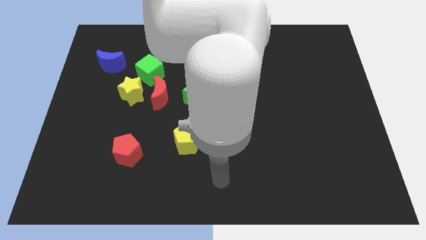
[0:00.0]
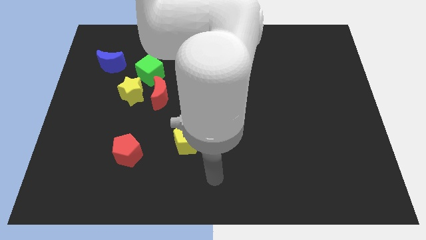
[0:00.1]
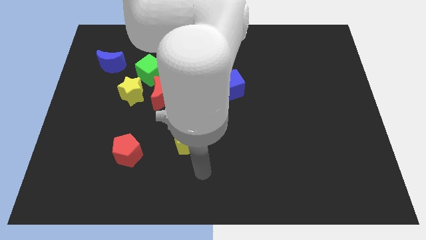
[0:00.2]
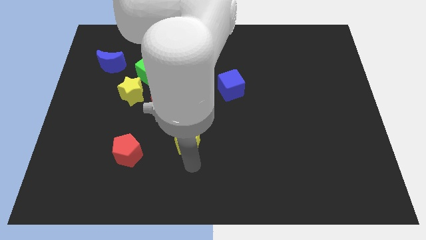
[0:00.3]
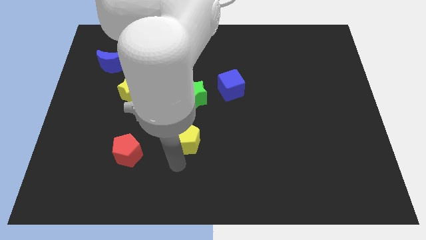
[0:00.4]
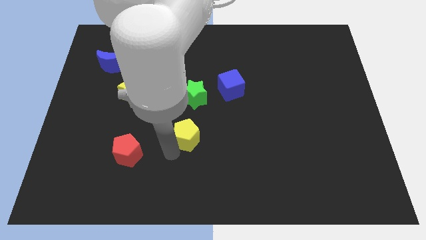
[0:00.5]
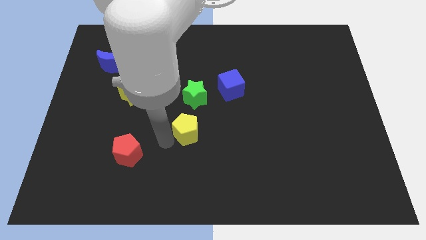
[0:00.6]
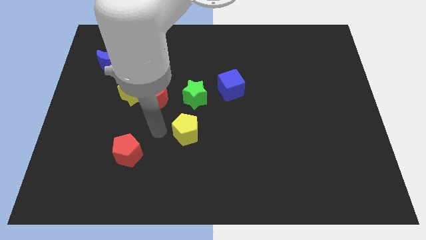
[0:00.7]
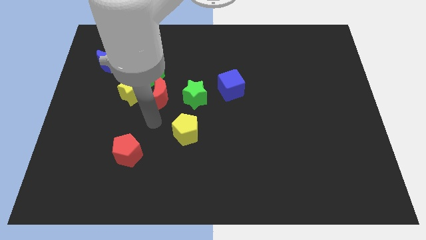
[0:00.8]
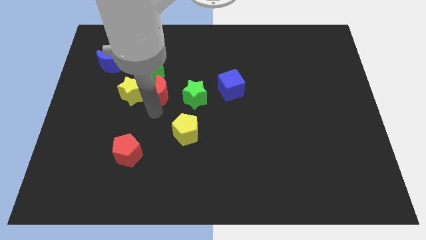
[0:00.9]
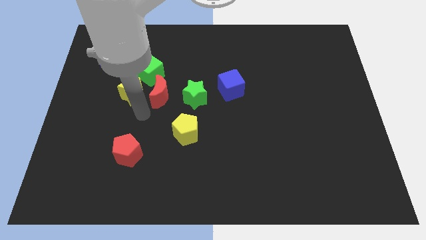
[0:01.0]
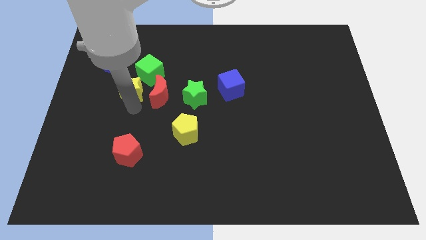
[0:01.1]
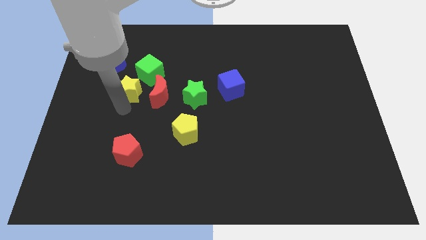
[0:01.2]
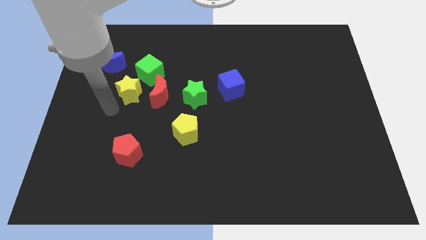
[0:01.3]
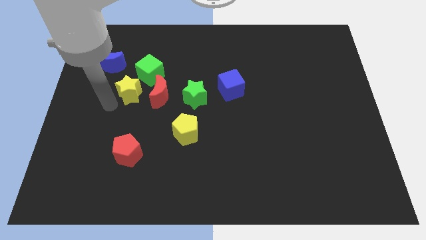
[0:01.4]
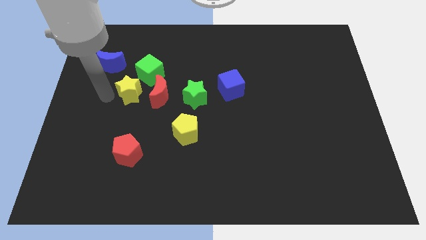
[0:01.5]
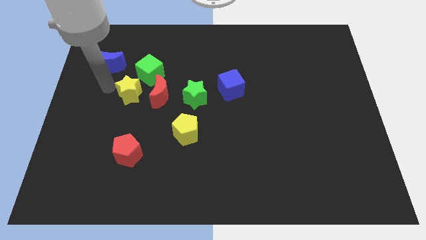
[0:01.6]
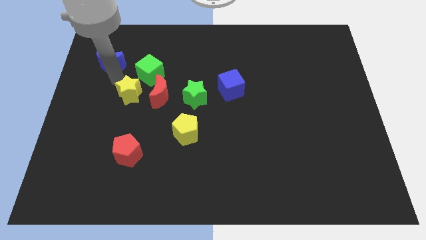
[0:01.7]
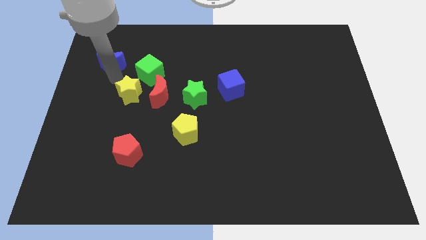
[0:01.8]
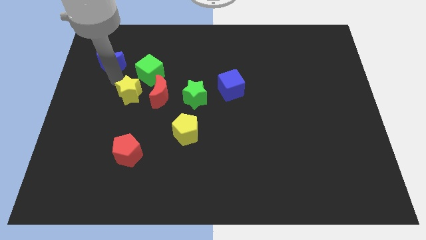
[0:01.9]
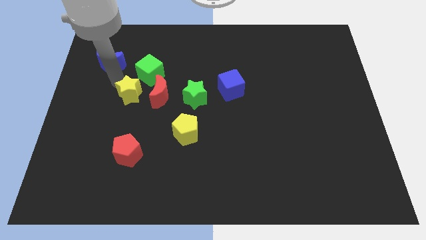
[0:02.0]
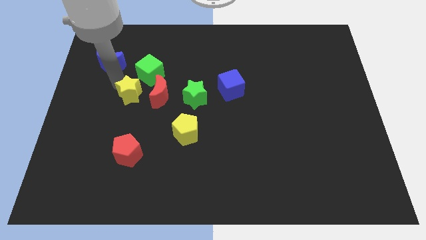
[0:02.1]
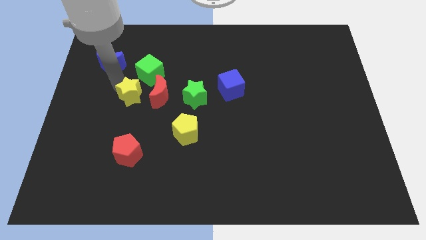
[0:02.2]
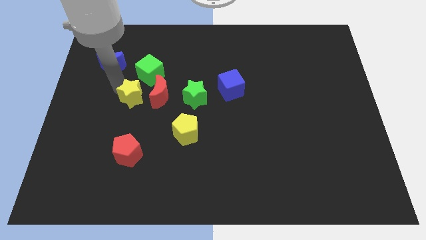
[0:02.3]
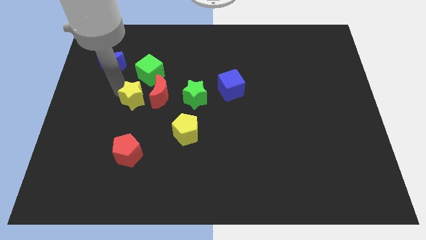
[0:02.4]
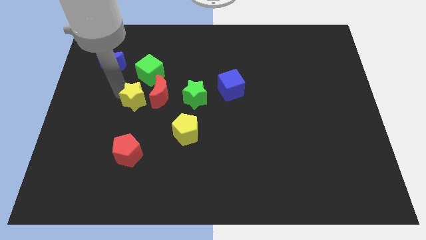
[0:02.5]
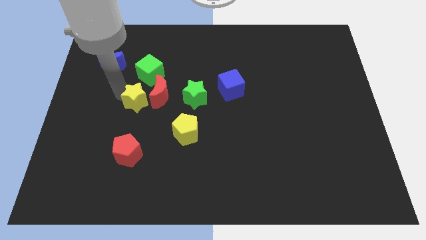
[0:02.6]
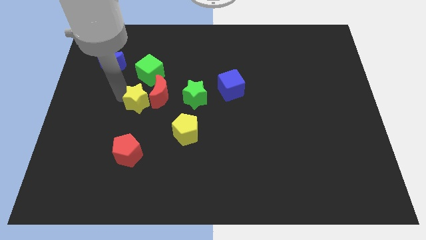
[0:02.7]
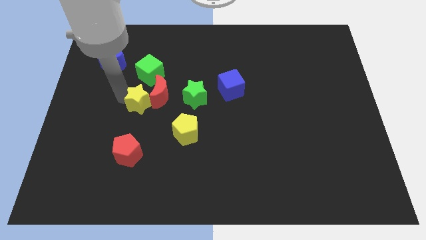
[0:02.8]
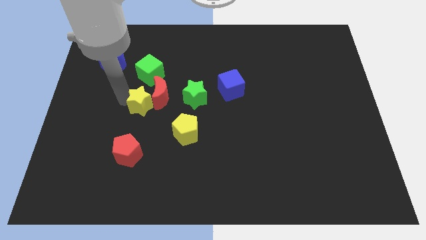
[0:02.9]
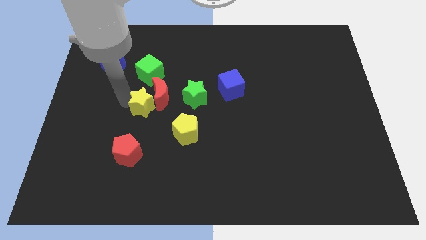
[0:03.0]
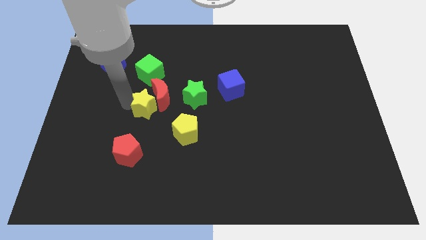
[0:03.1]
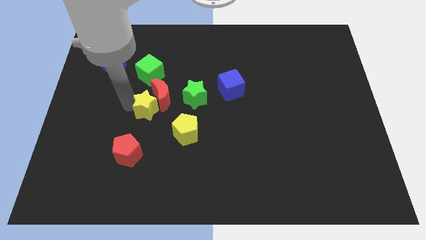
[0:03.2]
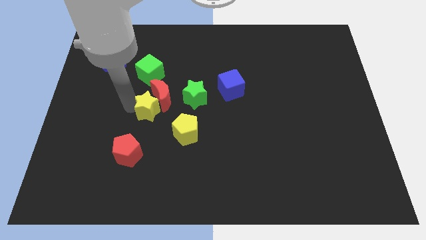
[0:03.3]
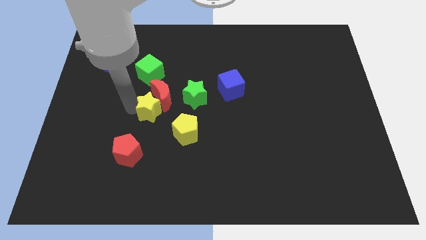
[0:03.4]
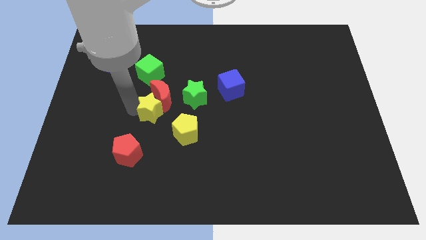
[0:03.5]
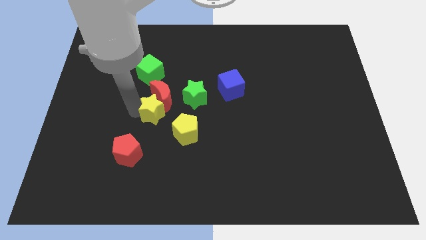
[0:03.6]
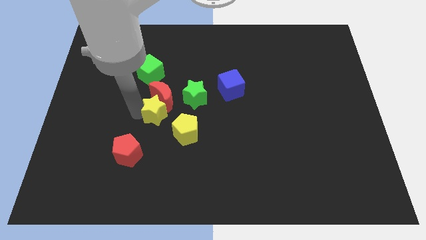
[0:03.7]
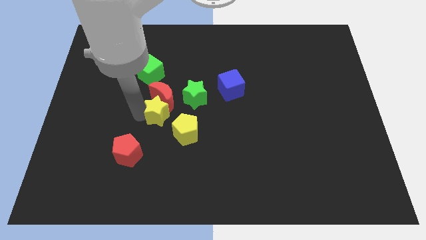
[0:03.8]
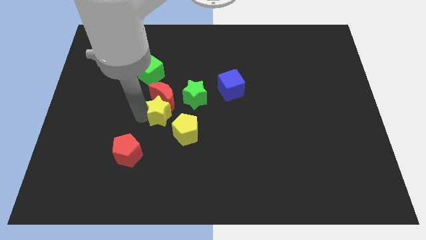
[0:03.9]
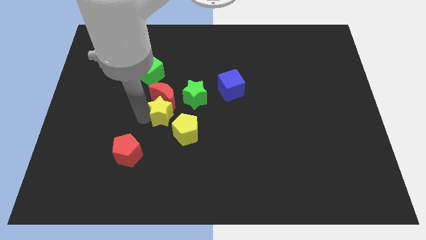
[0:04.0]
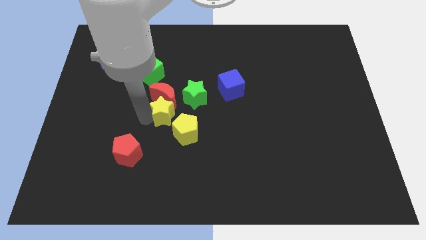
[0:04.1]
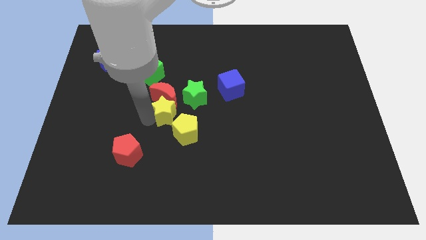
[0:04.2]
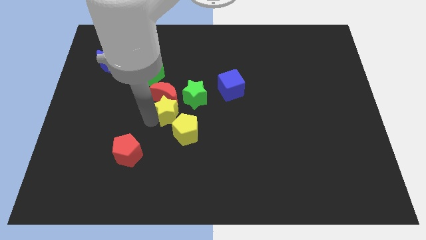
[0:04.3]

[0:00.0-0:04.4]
move the yellow star a little bit right

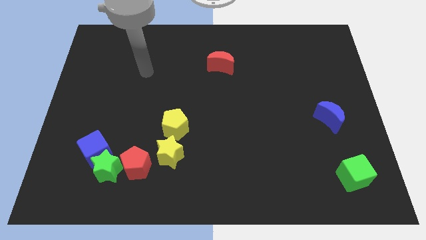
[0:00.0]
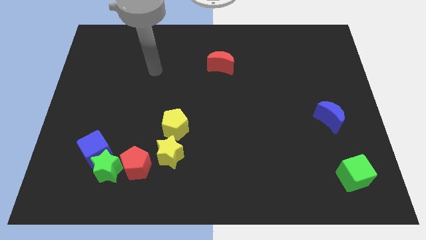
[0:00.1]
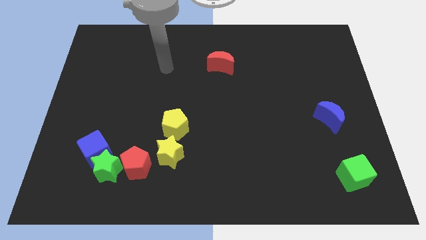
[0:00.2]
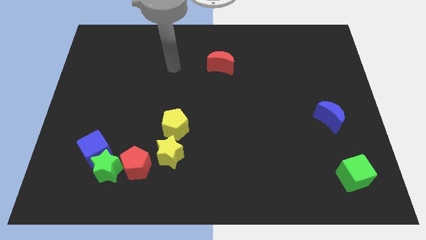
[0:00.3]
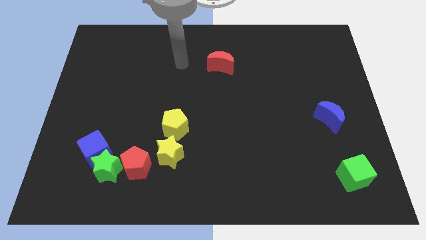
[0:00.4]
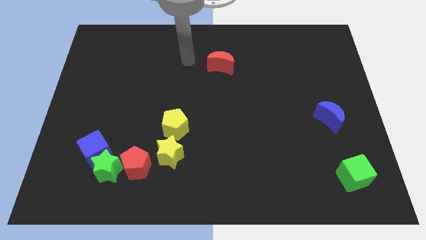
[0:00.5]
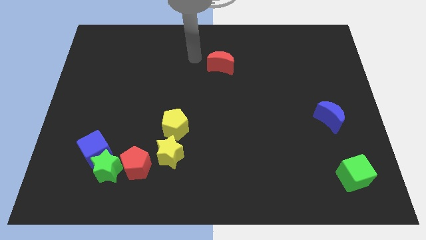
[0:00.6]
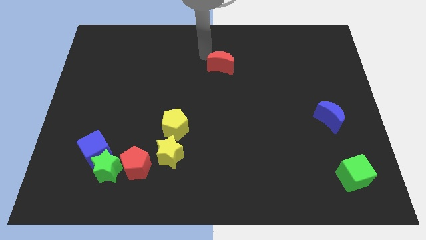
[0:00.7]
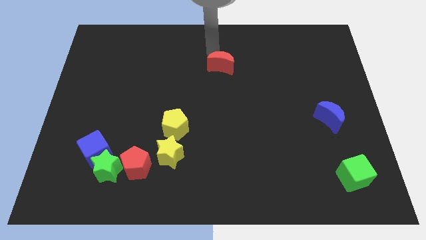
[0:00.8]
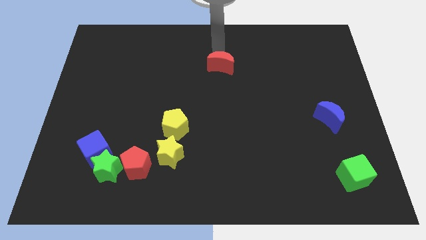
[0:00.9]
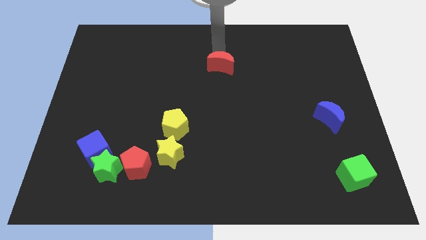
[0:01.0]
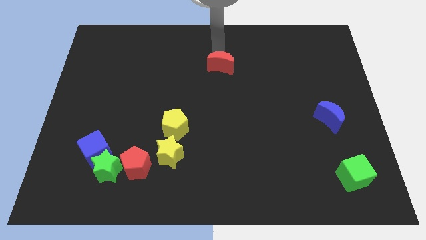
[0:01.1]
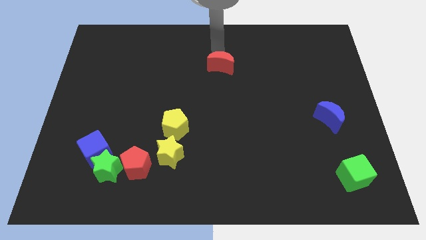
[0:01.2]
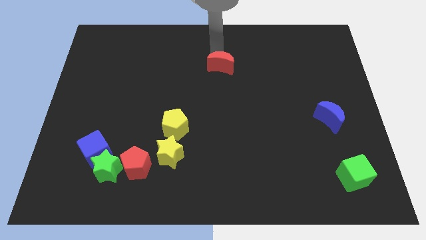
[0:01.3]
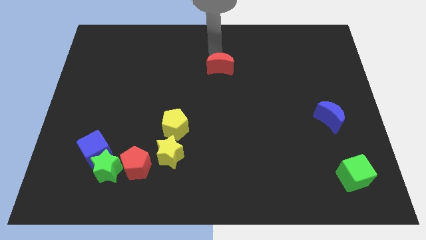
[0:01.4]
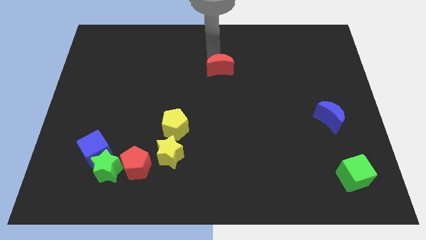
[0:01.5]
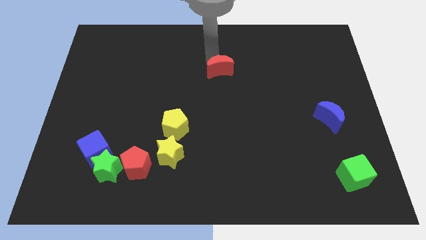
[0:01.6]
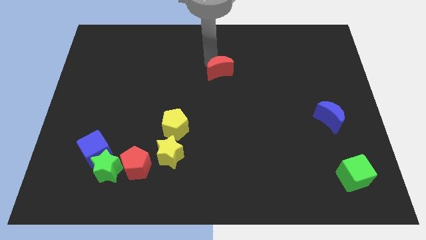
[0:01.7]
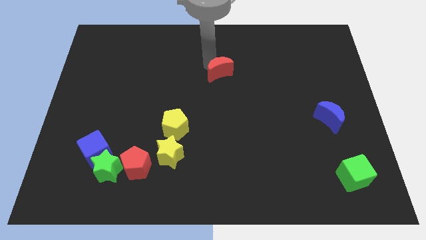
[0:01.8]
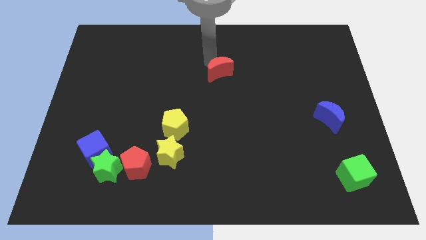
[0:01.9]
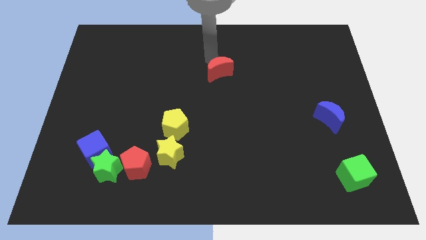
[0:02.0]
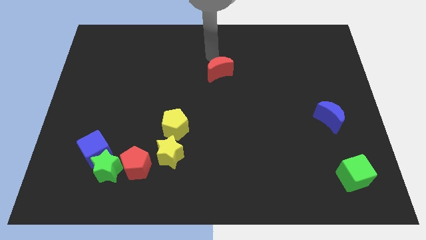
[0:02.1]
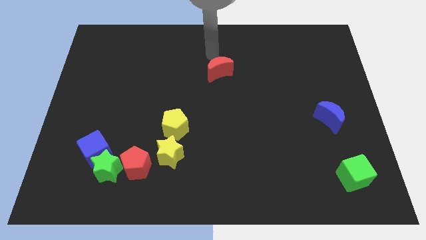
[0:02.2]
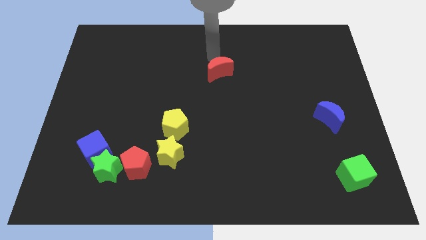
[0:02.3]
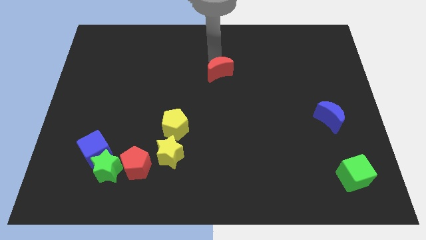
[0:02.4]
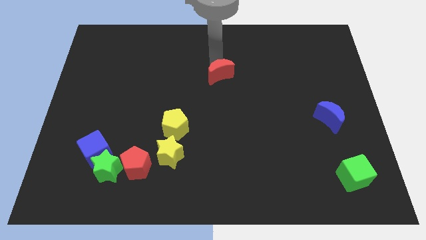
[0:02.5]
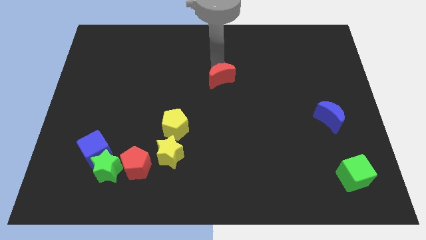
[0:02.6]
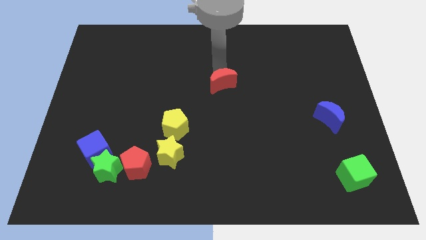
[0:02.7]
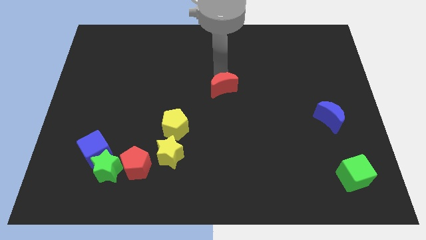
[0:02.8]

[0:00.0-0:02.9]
move the red moon a bit downwards

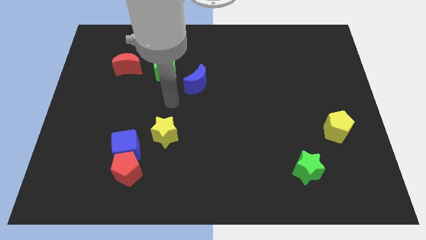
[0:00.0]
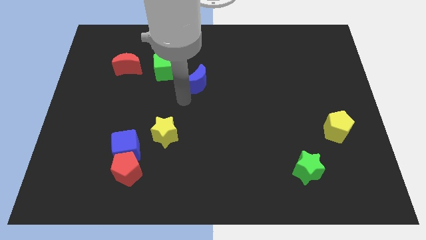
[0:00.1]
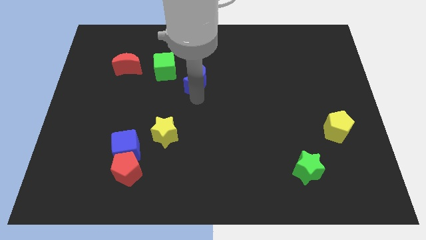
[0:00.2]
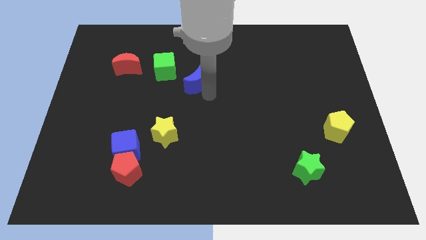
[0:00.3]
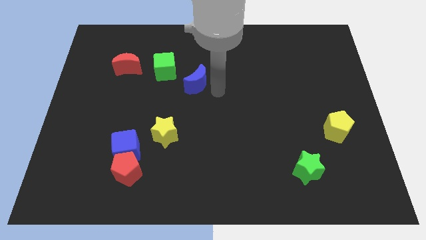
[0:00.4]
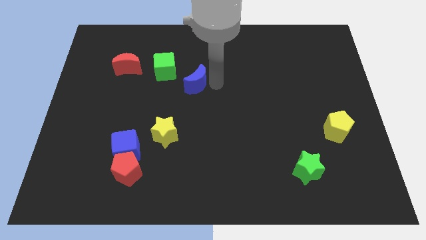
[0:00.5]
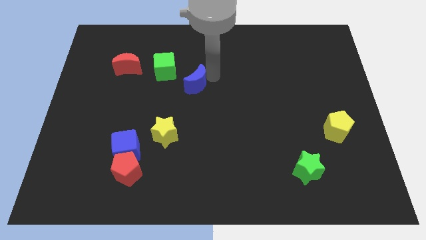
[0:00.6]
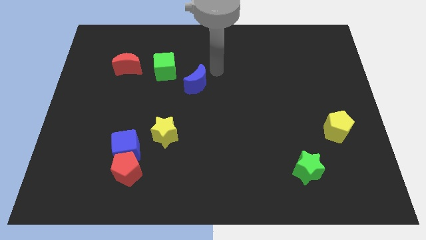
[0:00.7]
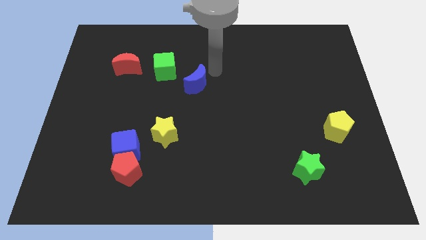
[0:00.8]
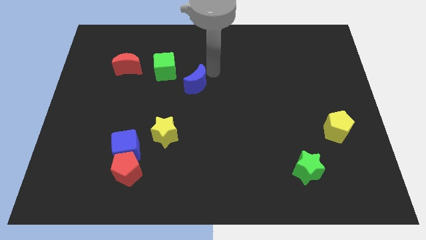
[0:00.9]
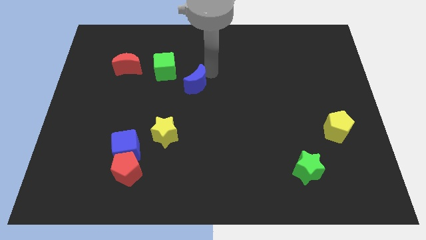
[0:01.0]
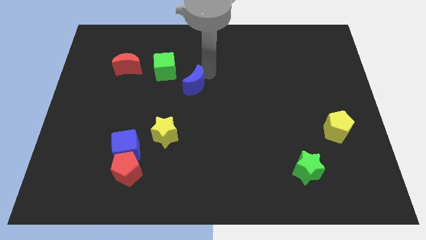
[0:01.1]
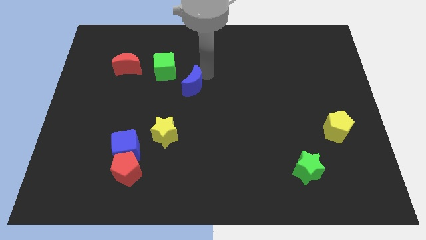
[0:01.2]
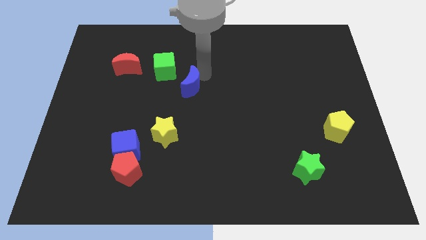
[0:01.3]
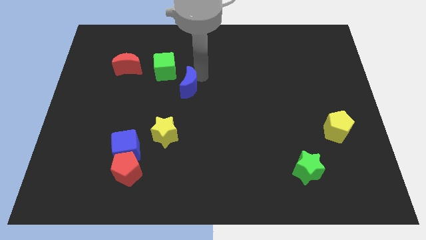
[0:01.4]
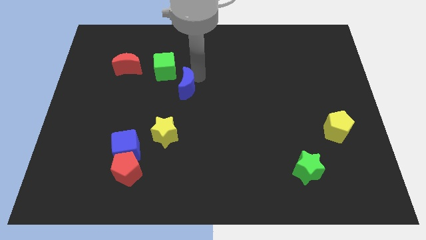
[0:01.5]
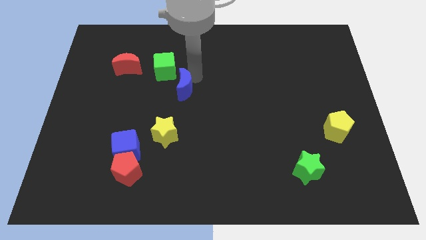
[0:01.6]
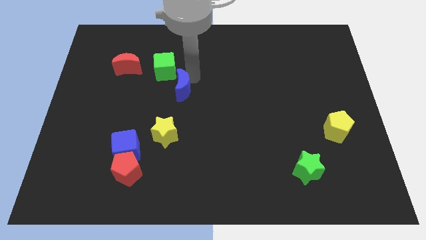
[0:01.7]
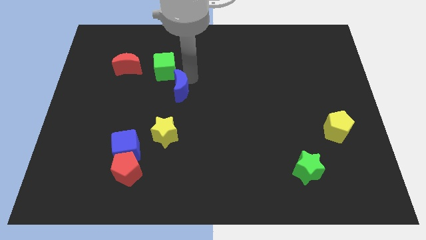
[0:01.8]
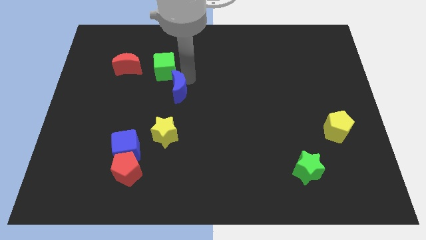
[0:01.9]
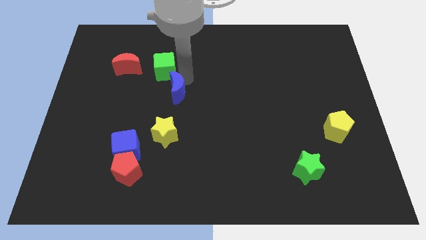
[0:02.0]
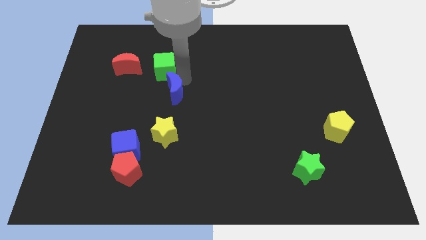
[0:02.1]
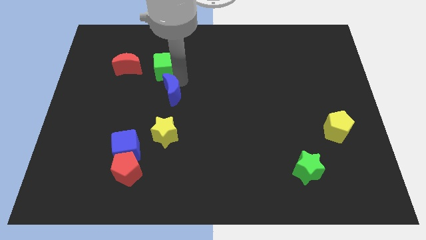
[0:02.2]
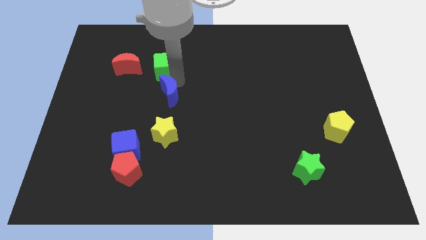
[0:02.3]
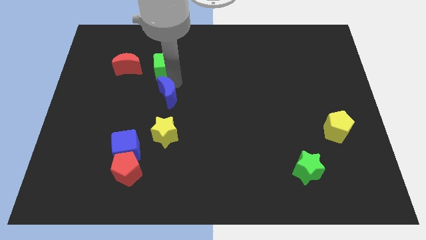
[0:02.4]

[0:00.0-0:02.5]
push the blue moon down and then to the left a little
